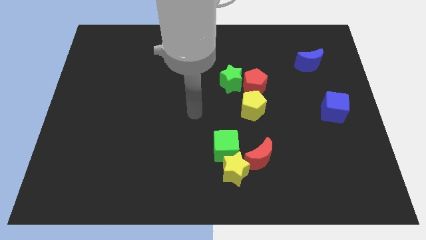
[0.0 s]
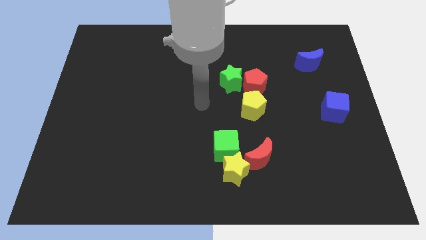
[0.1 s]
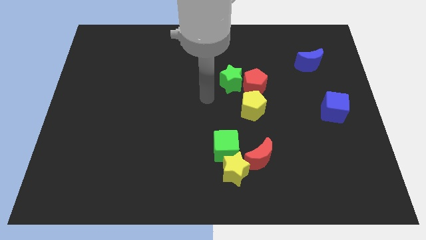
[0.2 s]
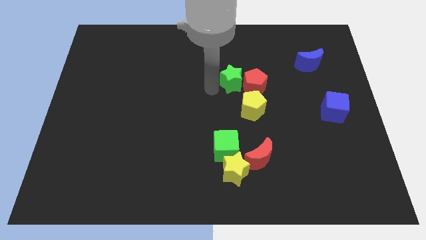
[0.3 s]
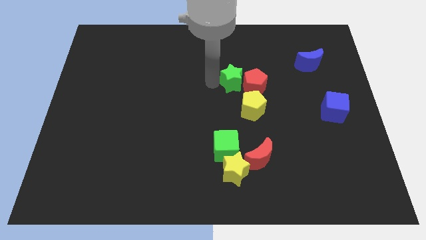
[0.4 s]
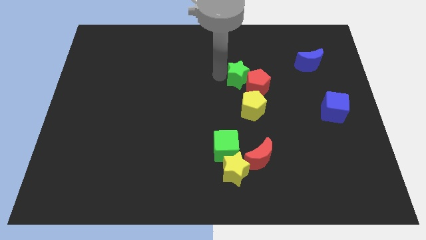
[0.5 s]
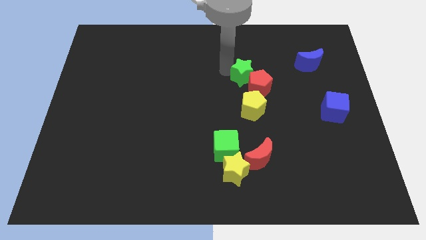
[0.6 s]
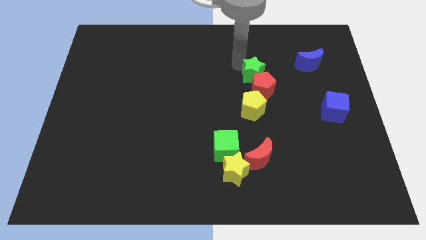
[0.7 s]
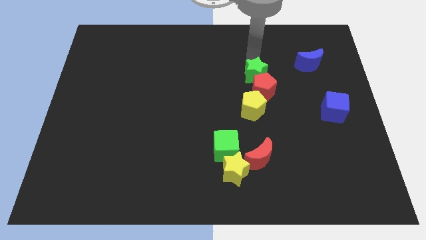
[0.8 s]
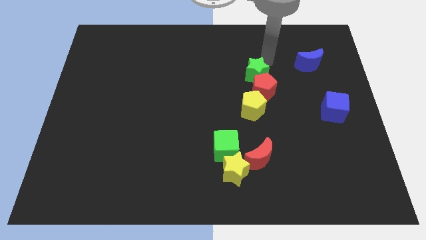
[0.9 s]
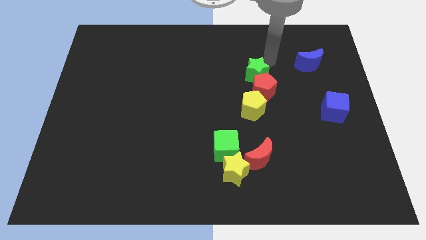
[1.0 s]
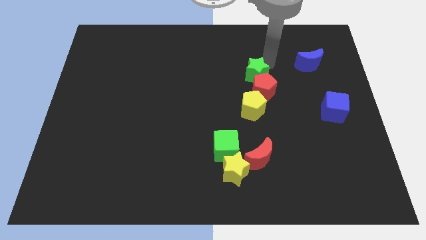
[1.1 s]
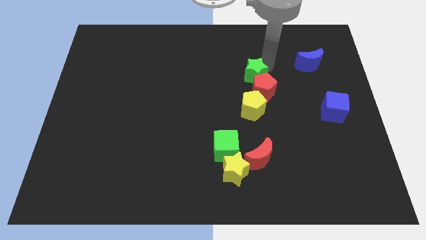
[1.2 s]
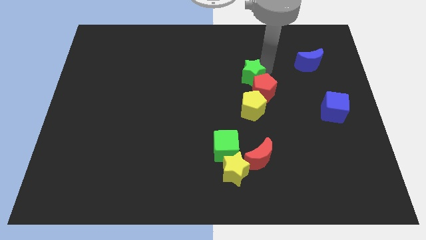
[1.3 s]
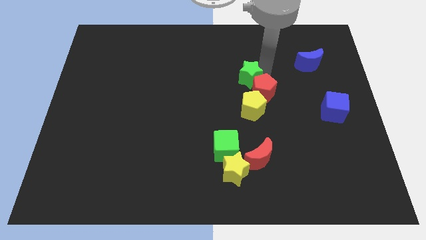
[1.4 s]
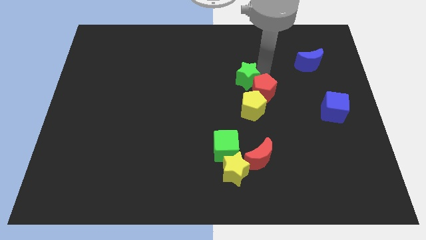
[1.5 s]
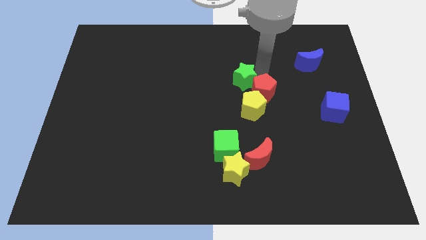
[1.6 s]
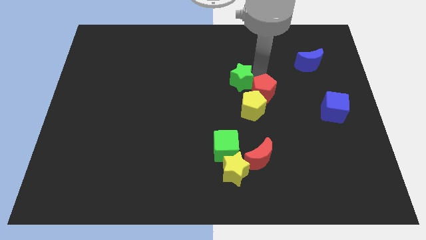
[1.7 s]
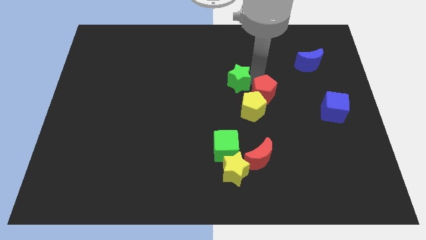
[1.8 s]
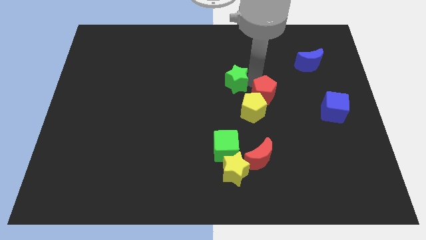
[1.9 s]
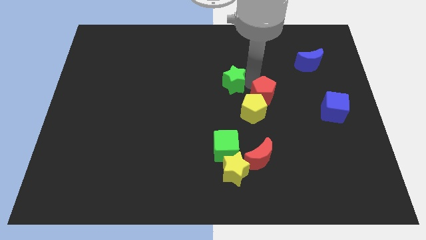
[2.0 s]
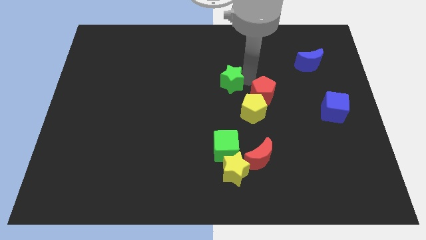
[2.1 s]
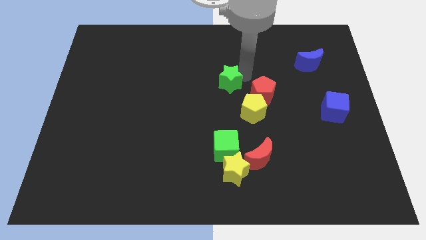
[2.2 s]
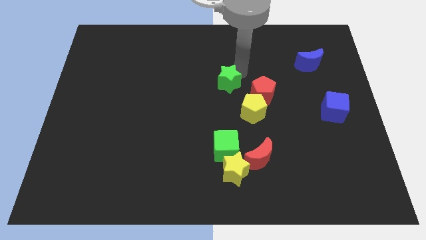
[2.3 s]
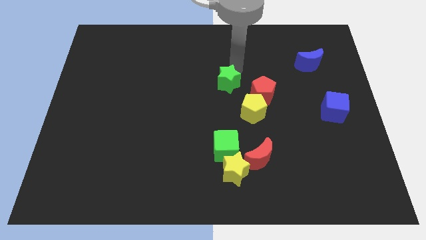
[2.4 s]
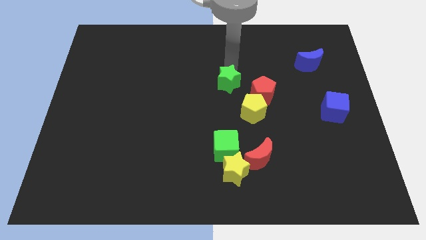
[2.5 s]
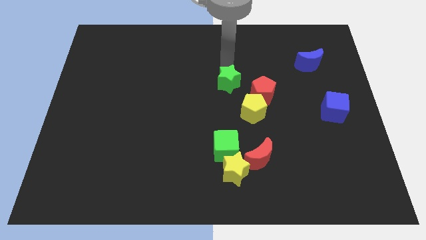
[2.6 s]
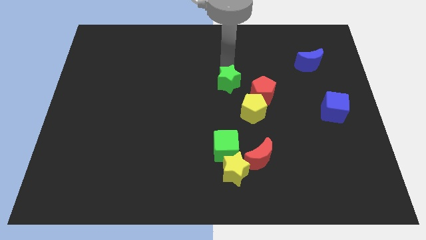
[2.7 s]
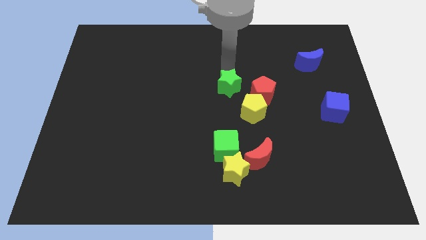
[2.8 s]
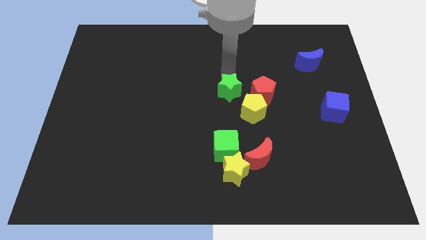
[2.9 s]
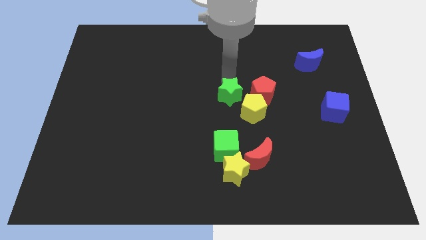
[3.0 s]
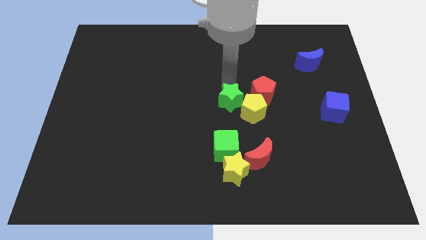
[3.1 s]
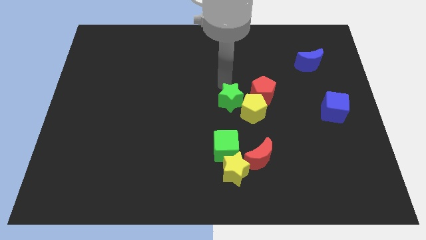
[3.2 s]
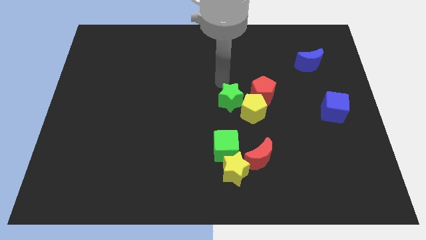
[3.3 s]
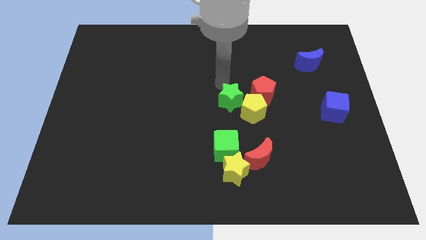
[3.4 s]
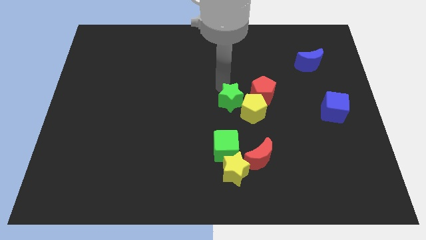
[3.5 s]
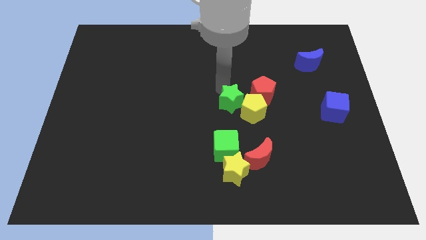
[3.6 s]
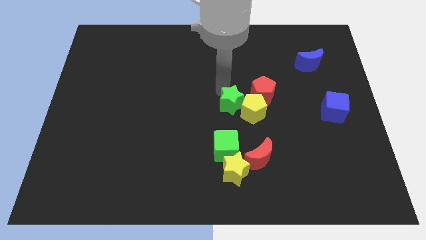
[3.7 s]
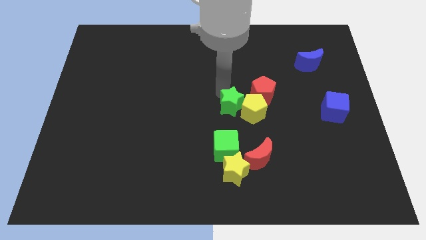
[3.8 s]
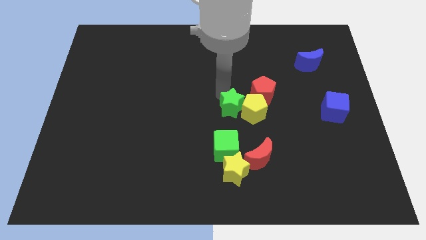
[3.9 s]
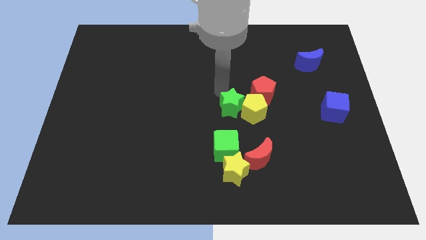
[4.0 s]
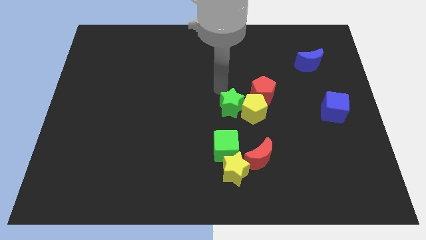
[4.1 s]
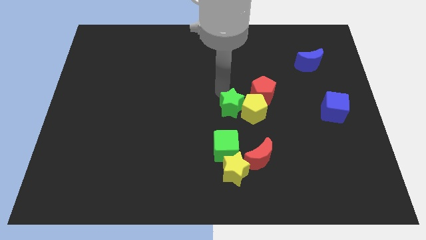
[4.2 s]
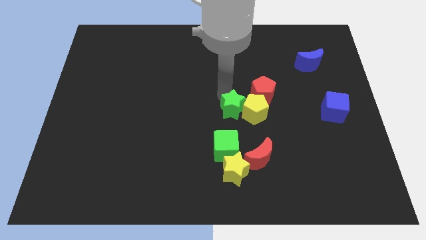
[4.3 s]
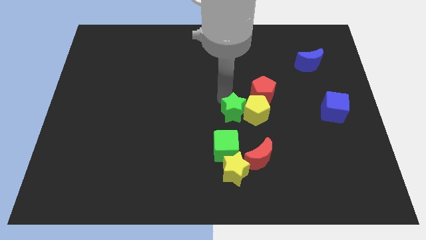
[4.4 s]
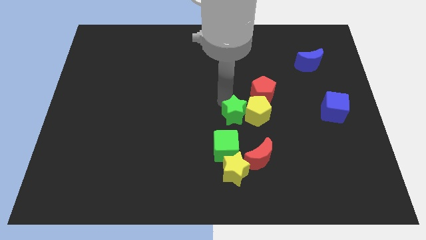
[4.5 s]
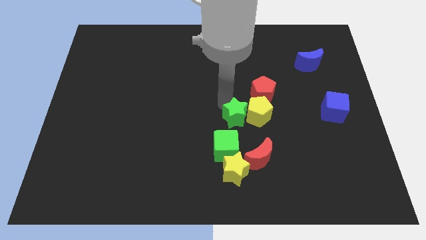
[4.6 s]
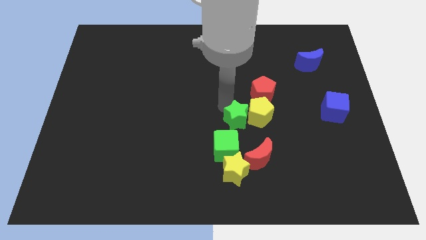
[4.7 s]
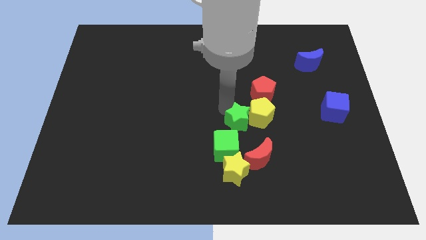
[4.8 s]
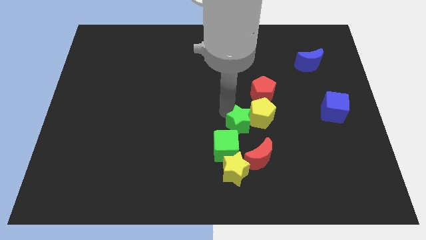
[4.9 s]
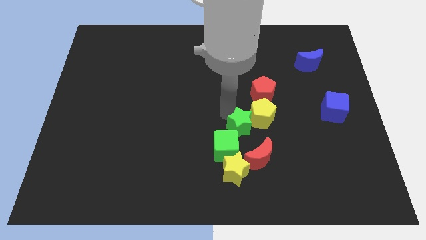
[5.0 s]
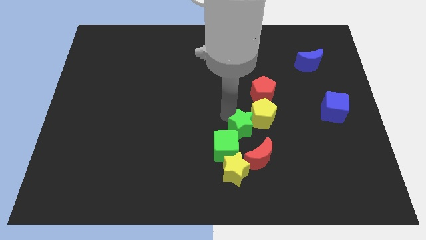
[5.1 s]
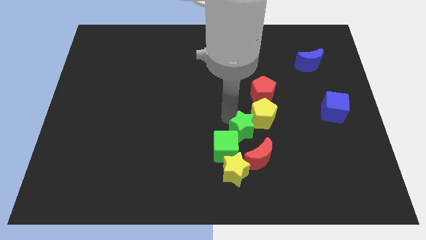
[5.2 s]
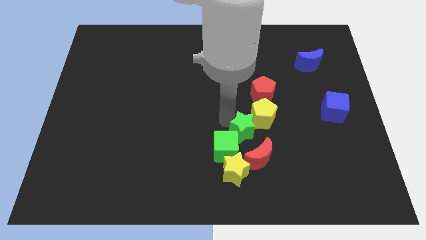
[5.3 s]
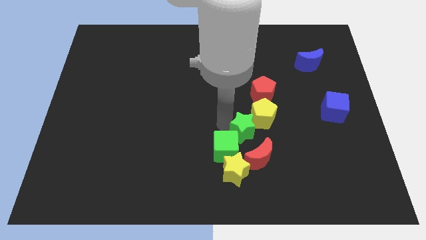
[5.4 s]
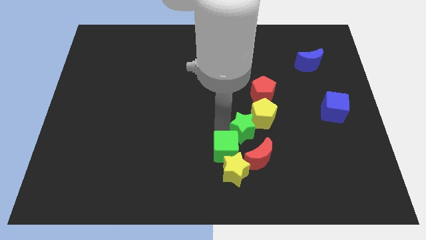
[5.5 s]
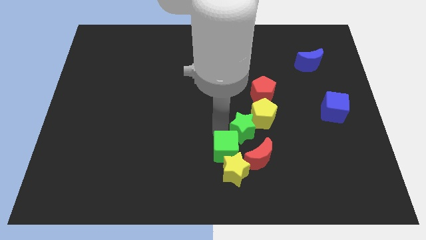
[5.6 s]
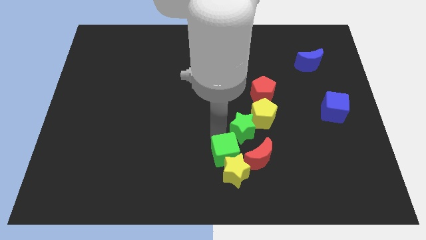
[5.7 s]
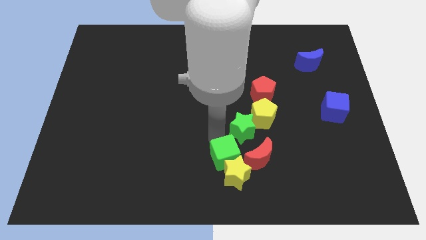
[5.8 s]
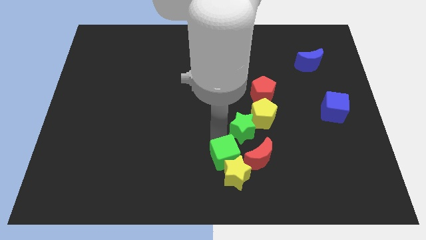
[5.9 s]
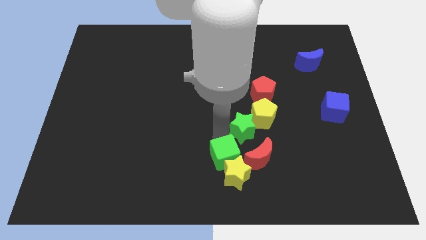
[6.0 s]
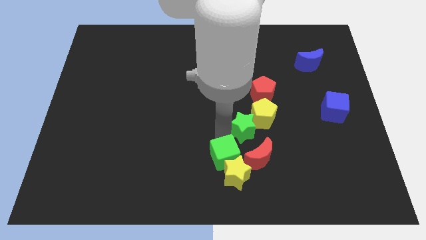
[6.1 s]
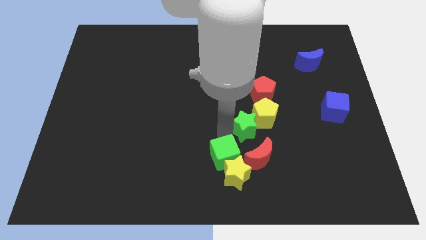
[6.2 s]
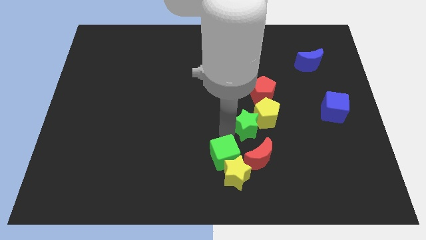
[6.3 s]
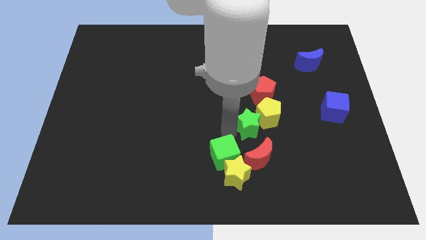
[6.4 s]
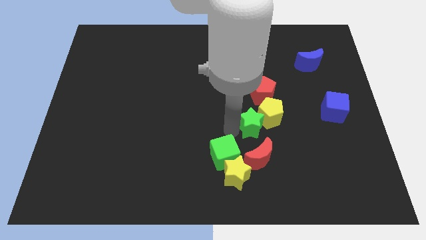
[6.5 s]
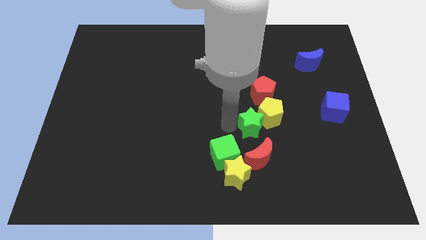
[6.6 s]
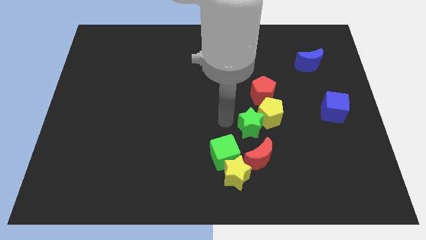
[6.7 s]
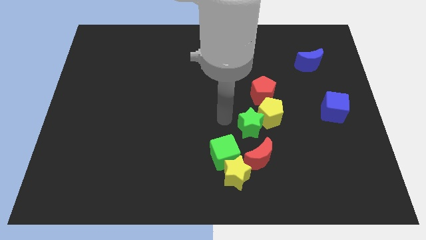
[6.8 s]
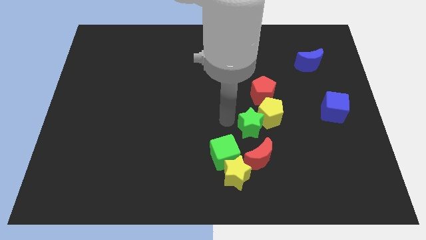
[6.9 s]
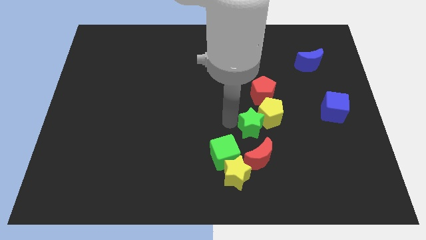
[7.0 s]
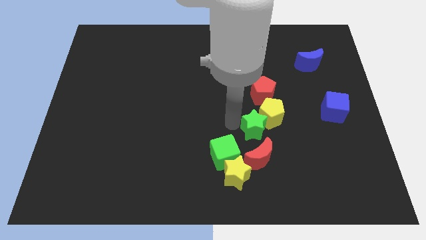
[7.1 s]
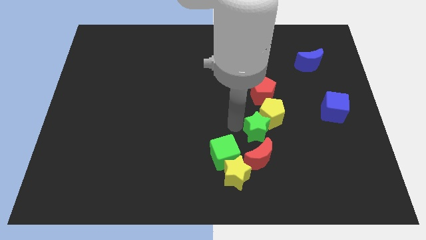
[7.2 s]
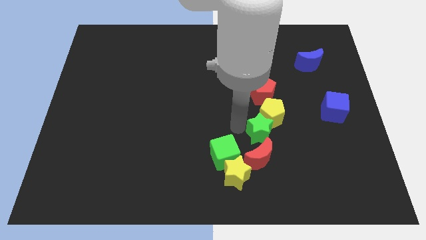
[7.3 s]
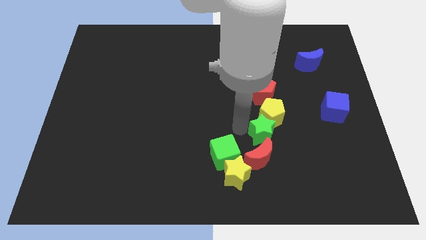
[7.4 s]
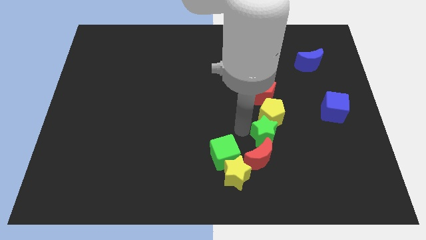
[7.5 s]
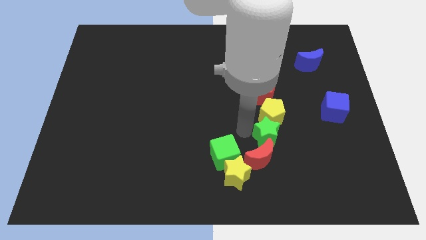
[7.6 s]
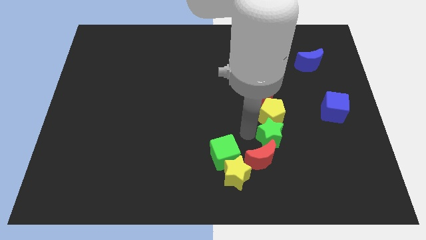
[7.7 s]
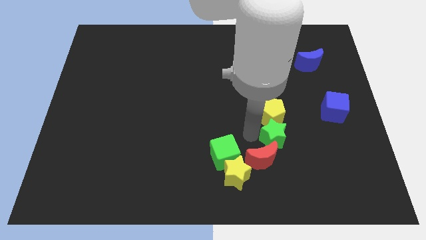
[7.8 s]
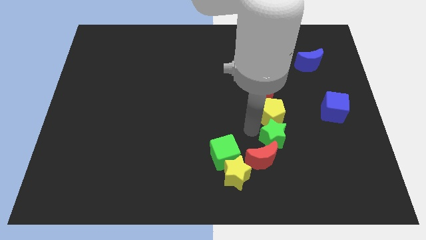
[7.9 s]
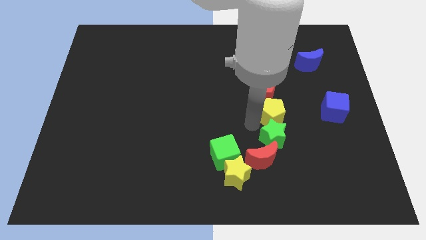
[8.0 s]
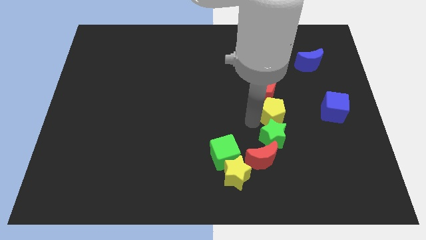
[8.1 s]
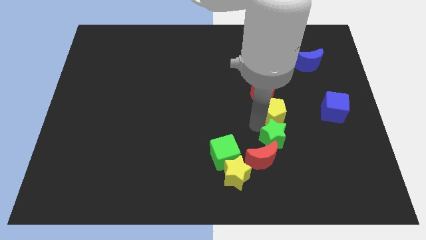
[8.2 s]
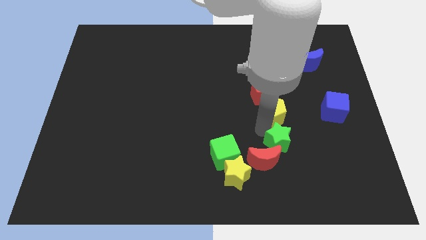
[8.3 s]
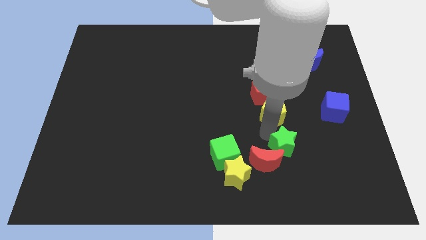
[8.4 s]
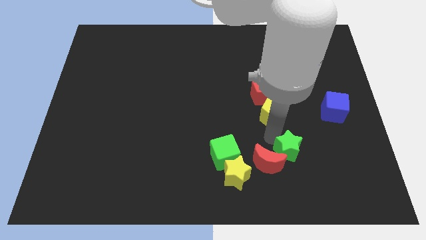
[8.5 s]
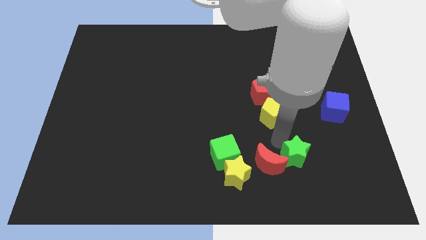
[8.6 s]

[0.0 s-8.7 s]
slide the green star to the right side of the yellow star
